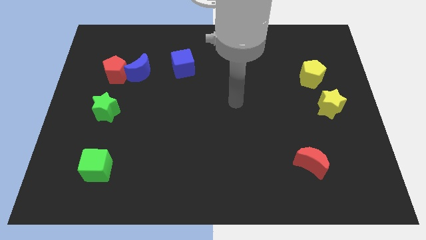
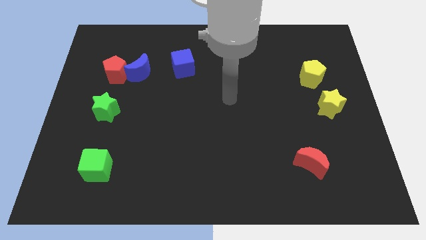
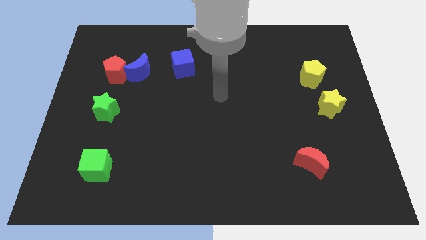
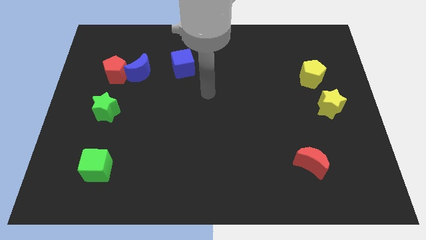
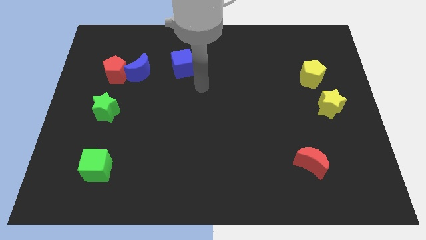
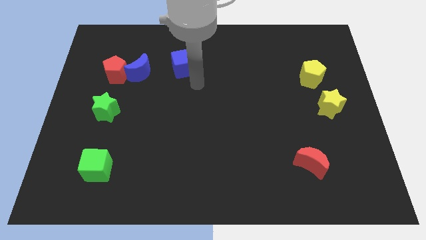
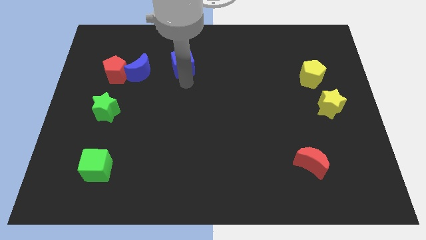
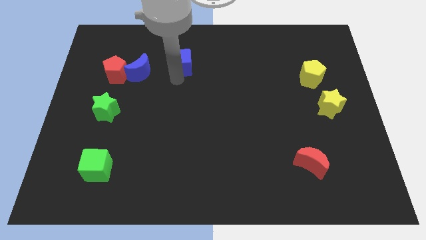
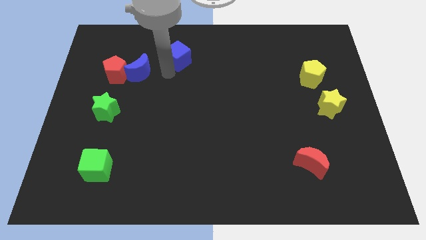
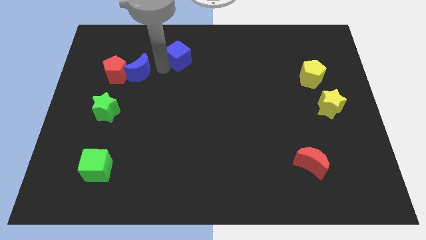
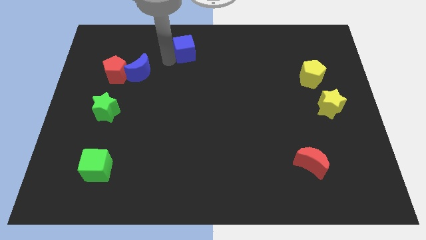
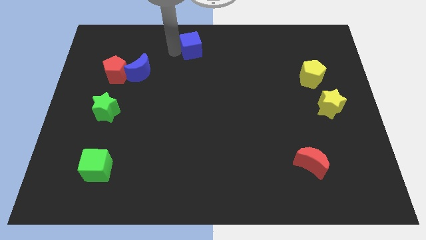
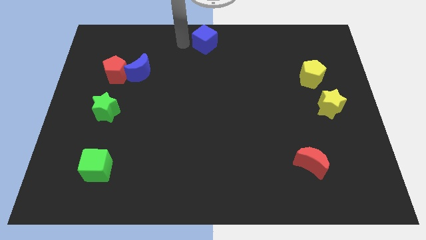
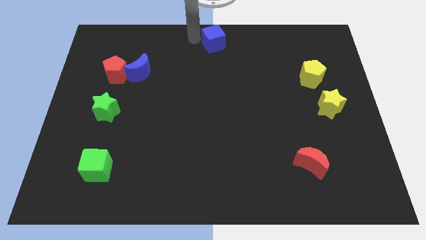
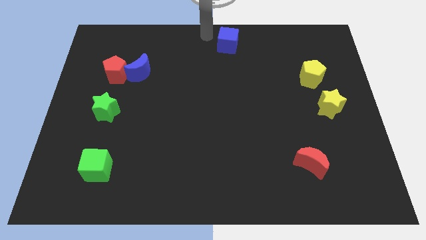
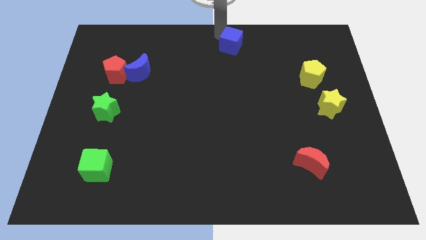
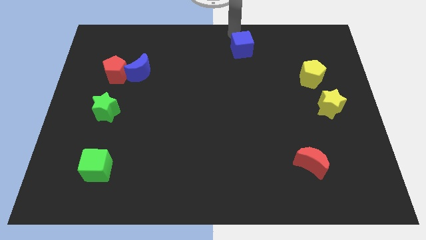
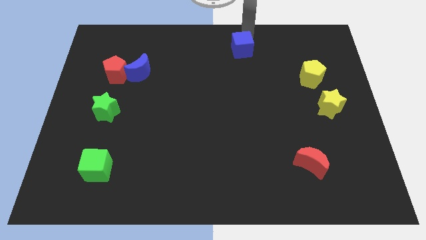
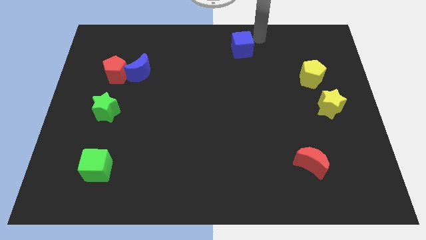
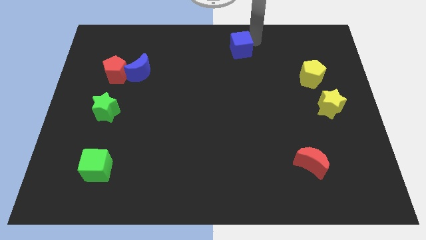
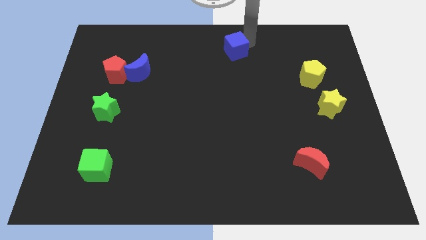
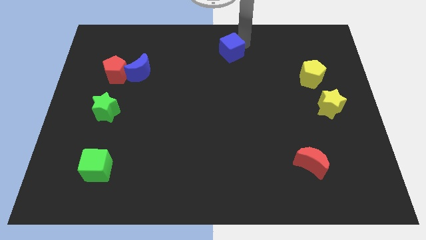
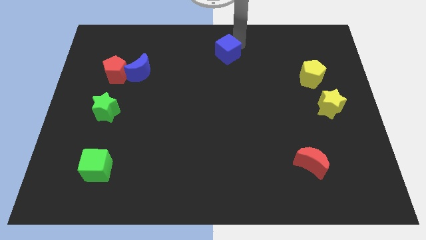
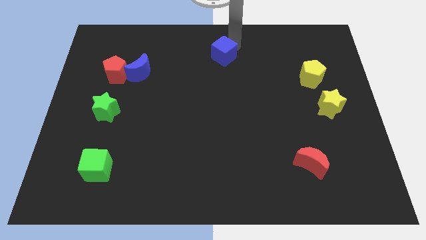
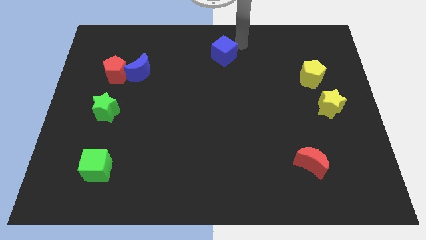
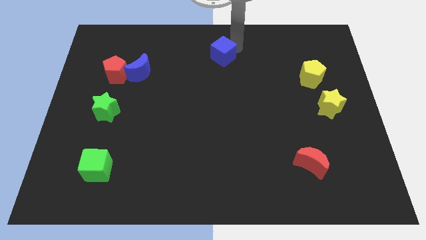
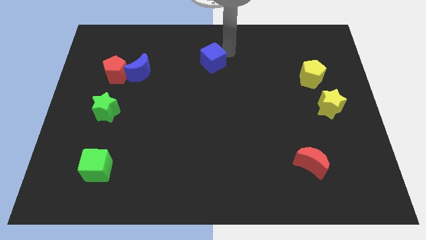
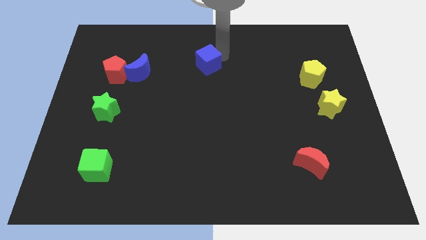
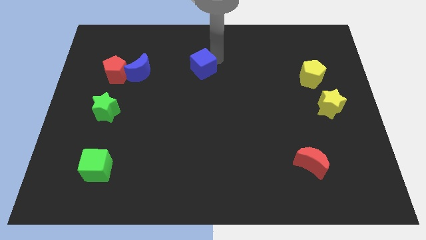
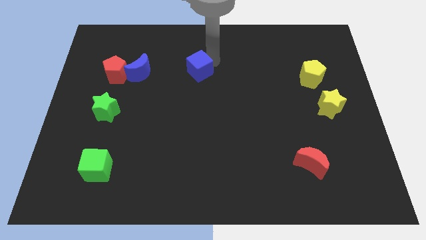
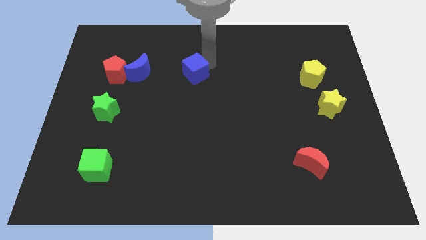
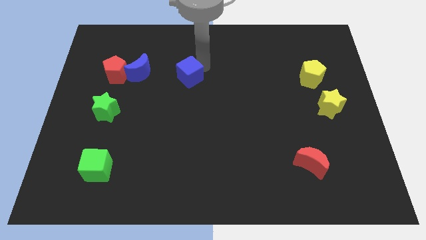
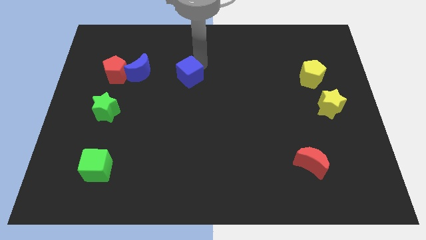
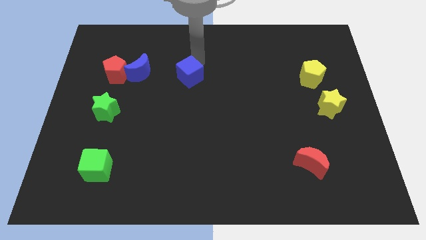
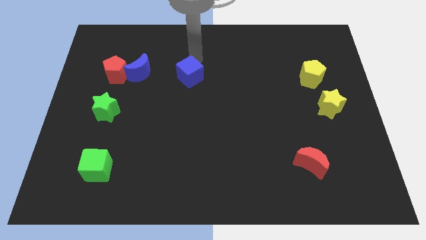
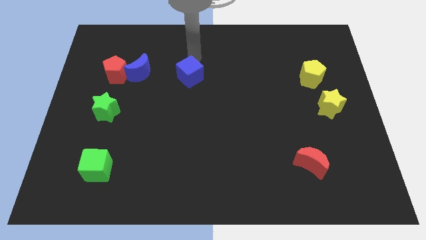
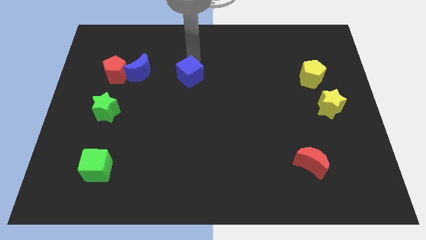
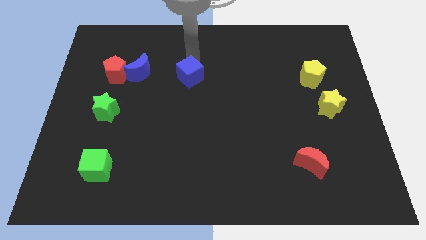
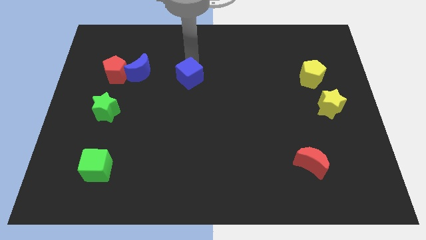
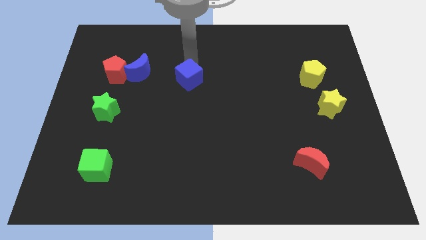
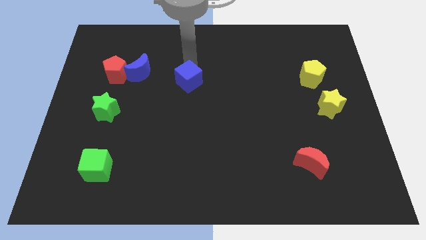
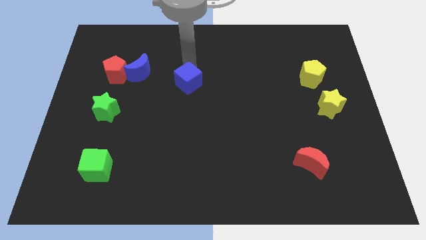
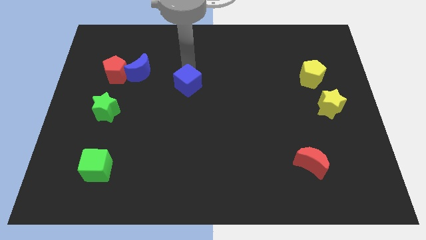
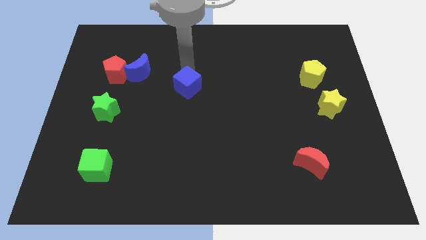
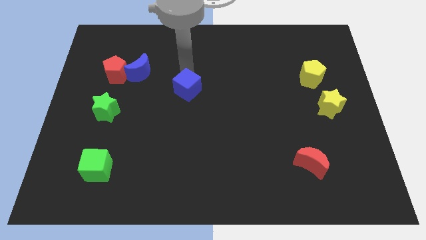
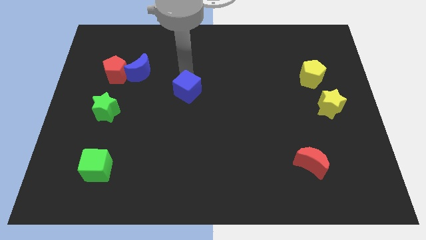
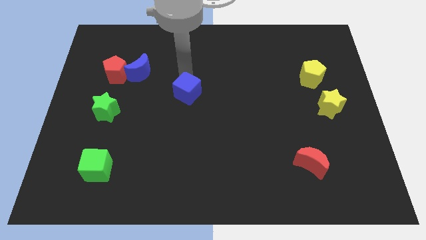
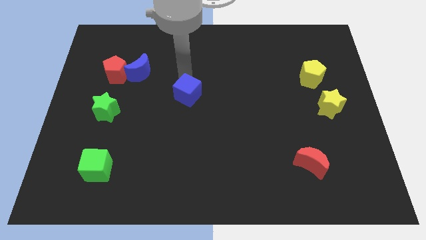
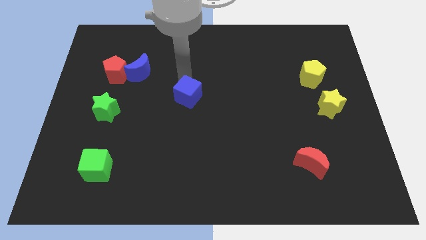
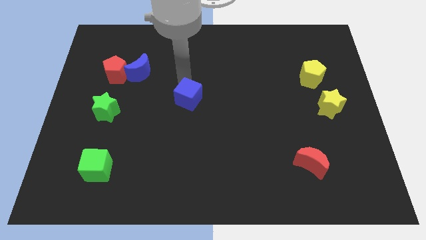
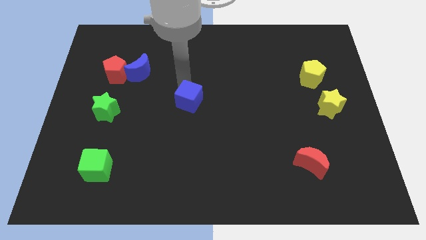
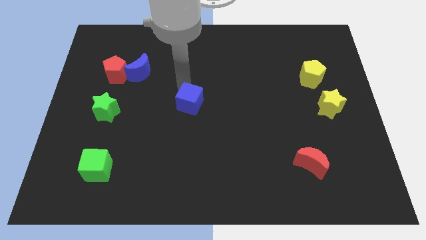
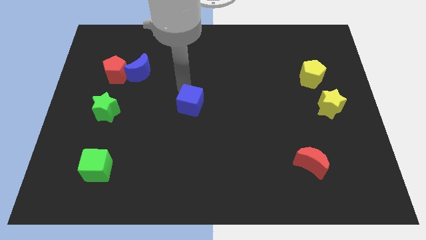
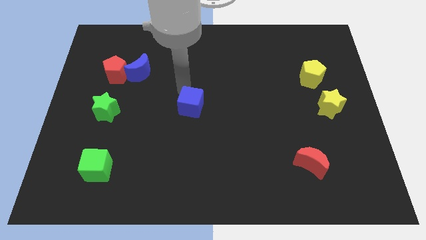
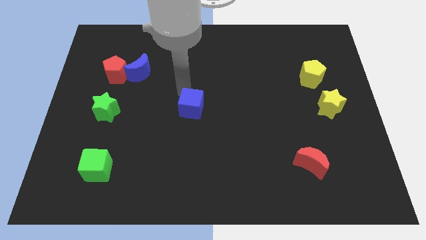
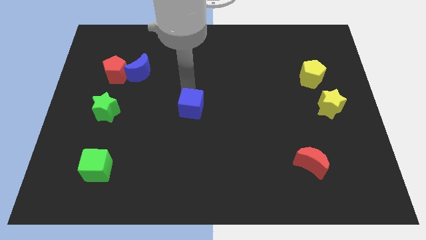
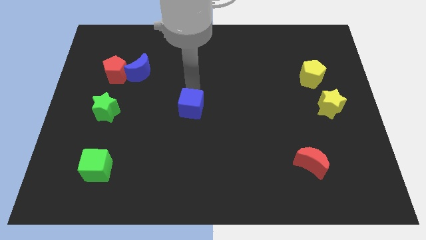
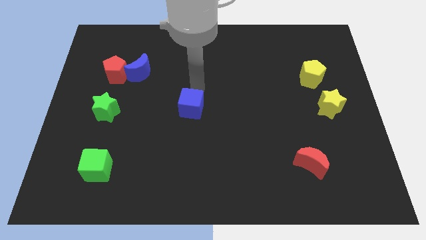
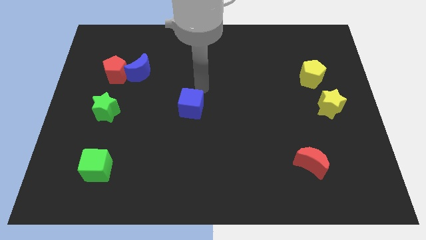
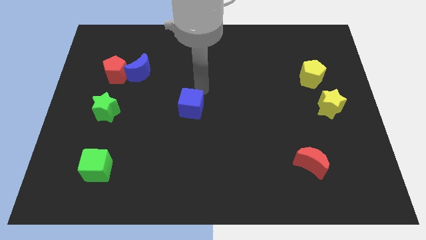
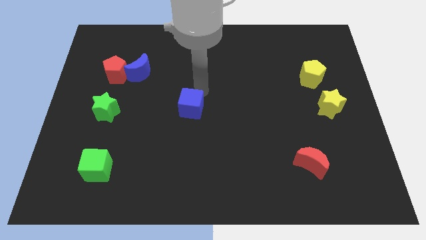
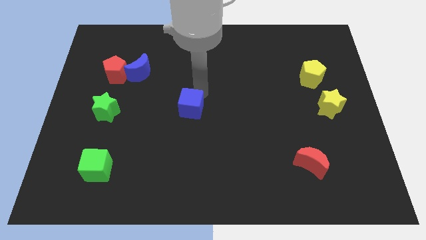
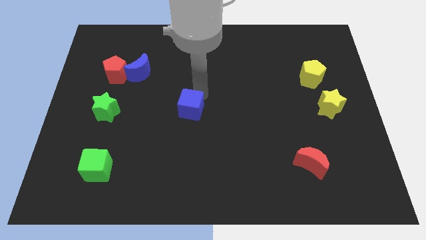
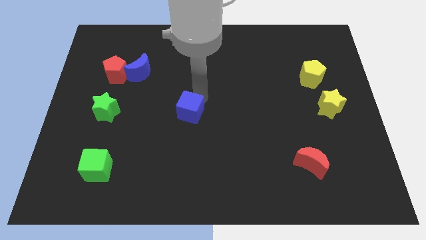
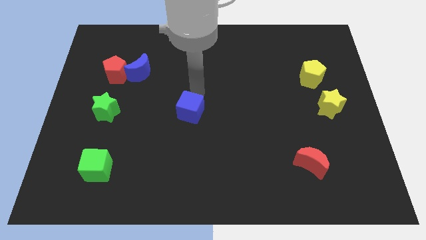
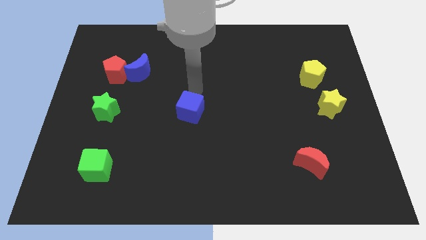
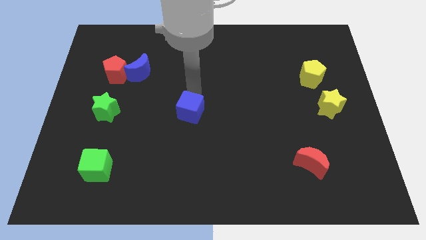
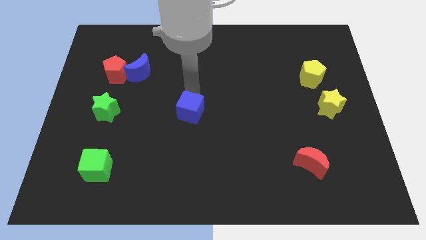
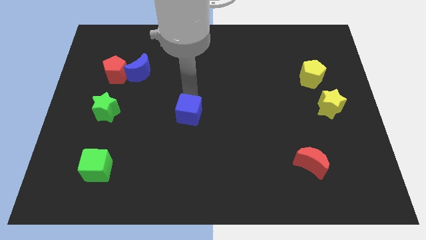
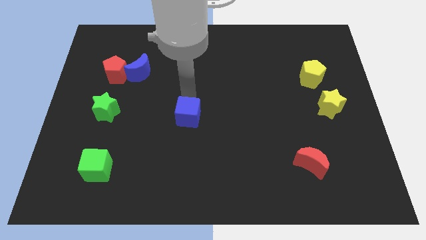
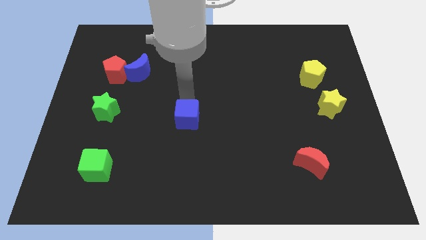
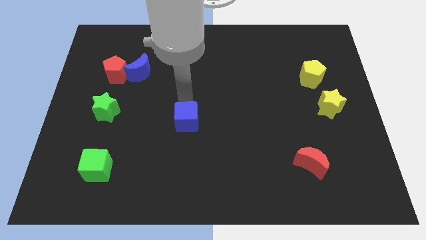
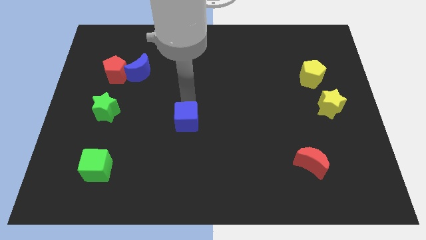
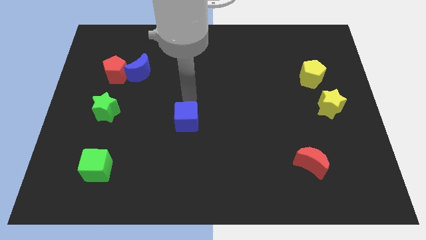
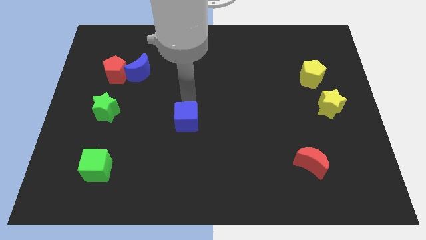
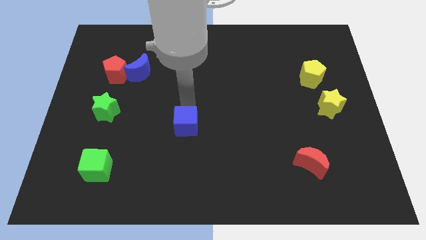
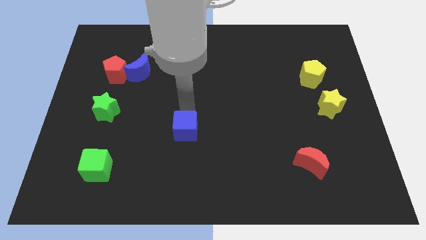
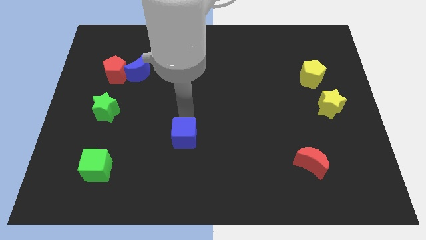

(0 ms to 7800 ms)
slide the blue cube down
